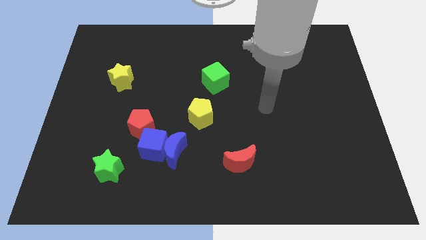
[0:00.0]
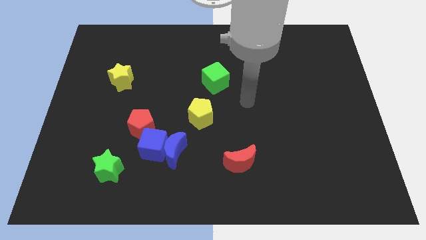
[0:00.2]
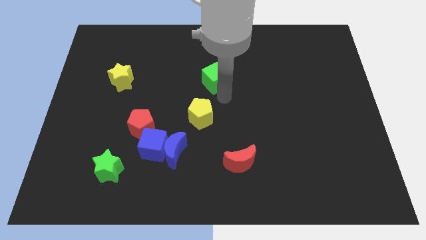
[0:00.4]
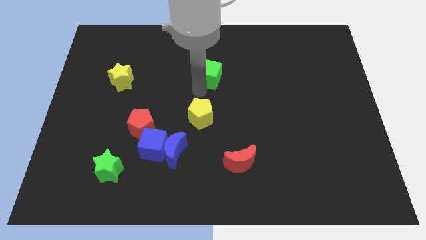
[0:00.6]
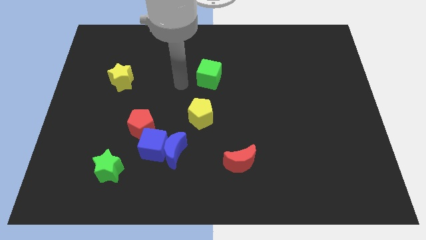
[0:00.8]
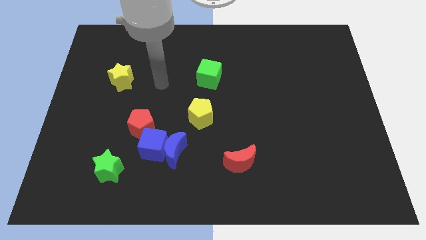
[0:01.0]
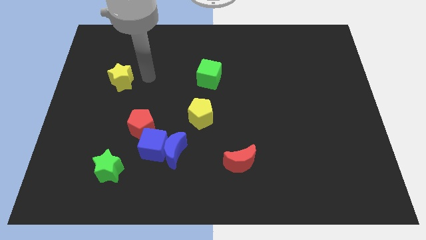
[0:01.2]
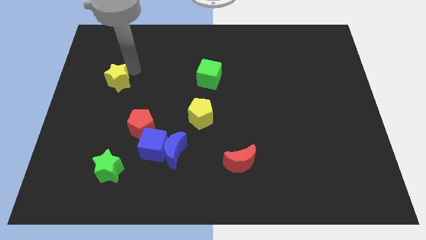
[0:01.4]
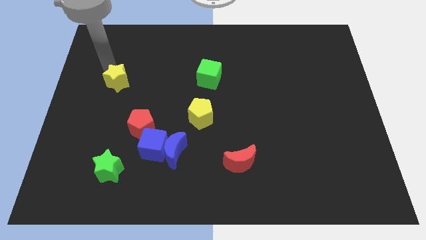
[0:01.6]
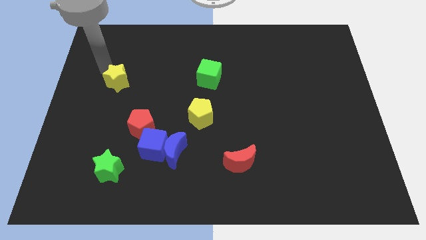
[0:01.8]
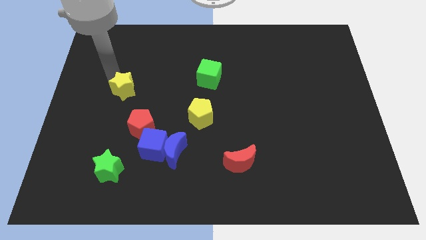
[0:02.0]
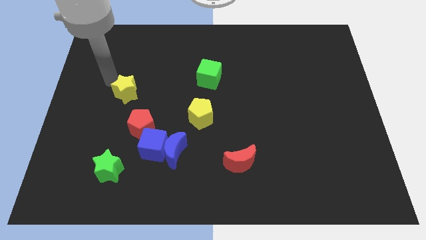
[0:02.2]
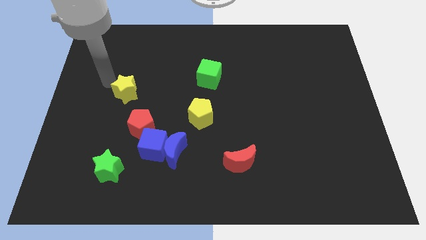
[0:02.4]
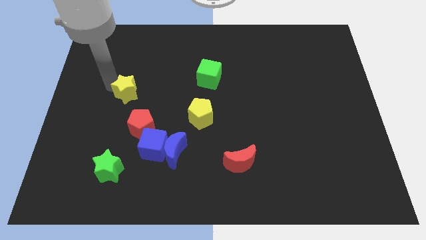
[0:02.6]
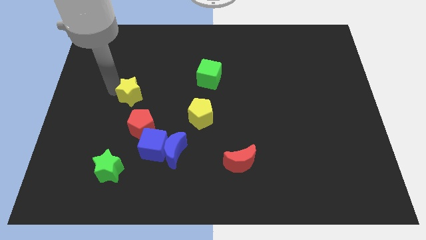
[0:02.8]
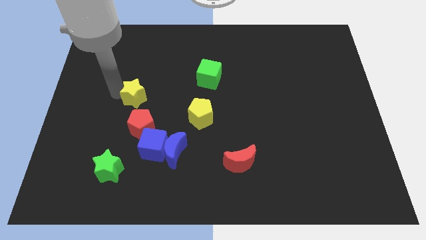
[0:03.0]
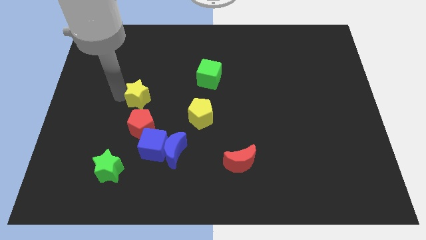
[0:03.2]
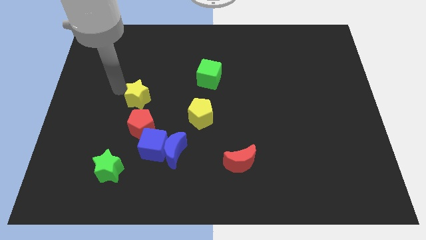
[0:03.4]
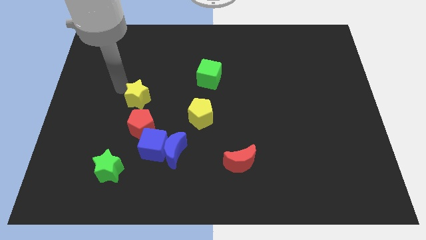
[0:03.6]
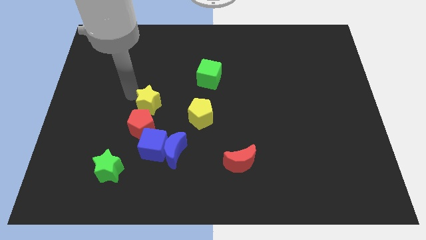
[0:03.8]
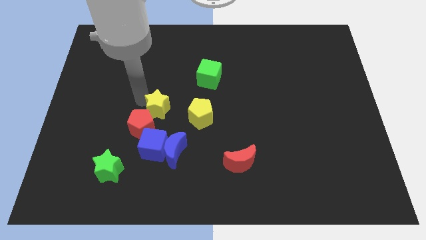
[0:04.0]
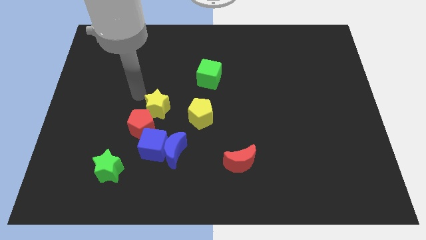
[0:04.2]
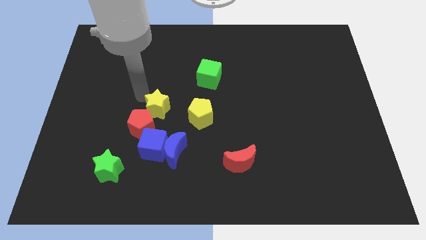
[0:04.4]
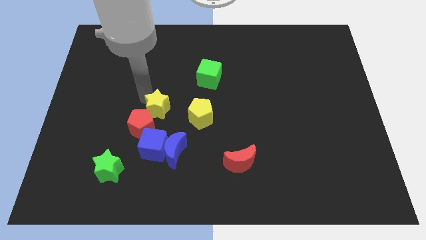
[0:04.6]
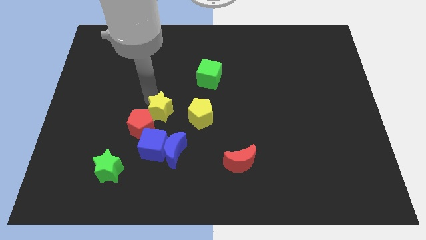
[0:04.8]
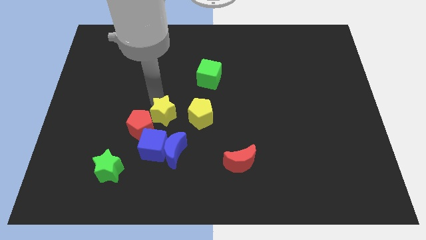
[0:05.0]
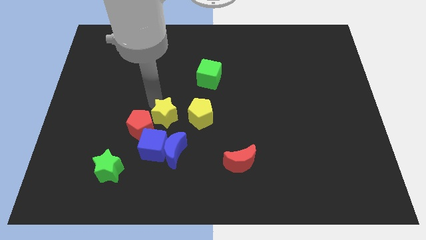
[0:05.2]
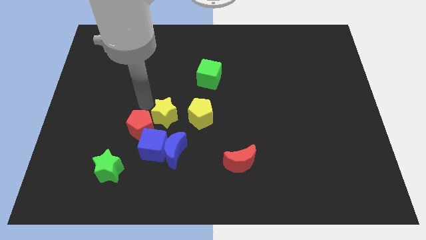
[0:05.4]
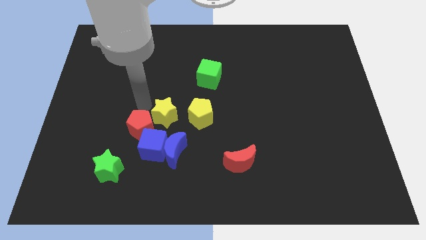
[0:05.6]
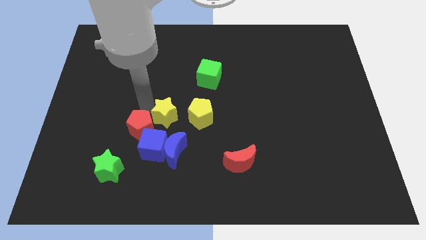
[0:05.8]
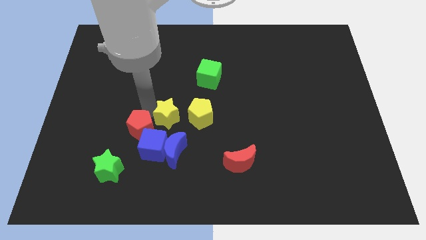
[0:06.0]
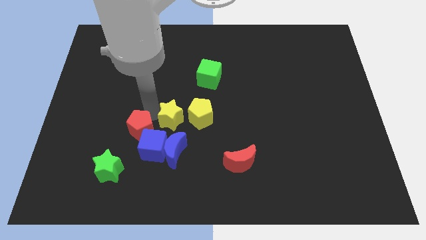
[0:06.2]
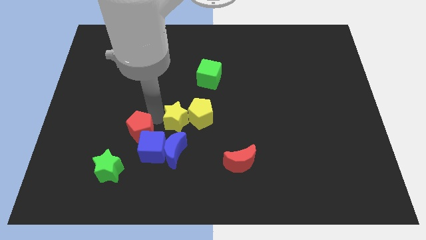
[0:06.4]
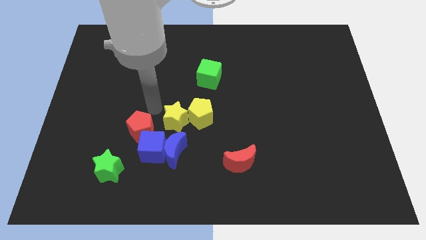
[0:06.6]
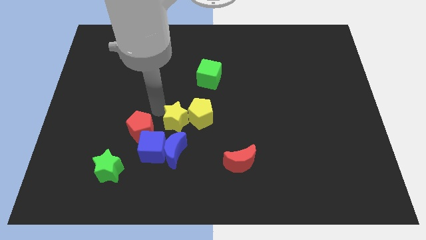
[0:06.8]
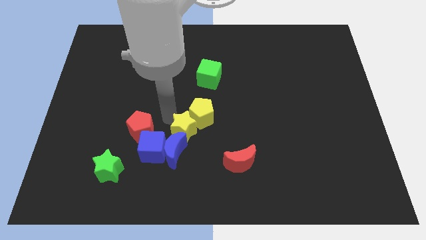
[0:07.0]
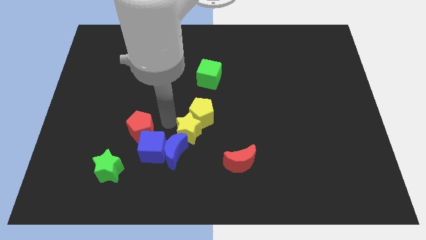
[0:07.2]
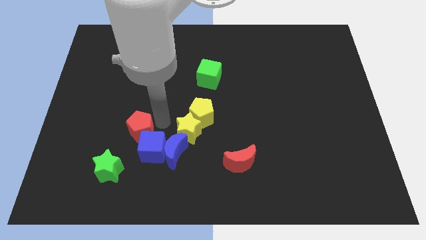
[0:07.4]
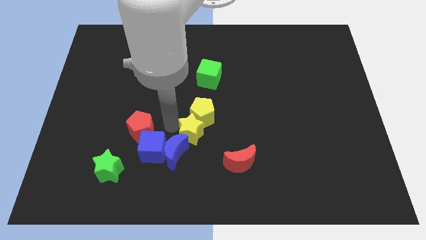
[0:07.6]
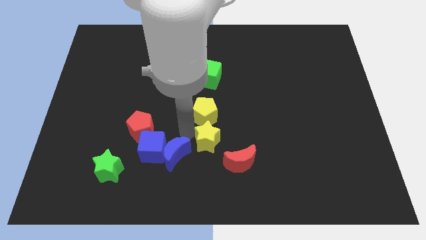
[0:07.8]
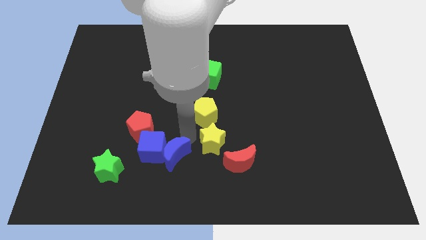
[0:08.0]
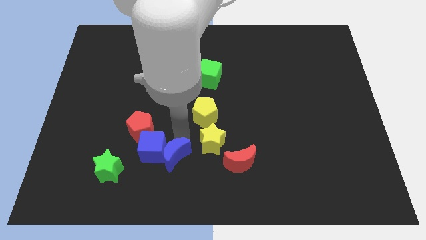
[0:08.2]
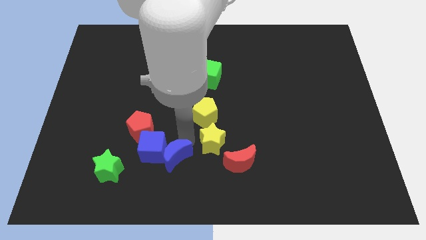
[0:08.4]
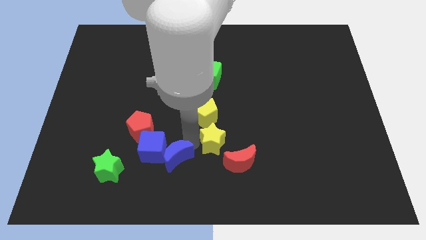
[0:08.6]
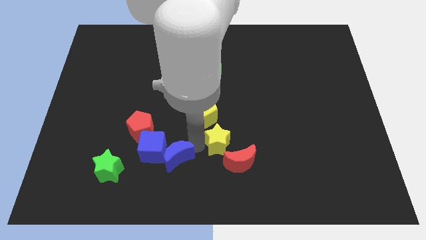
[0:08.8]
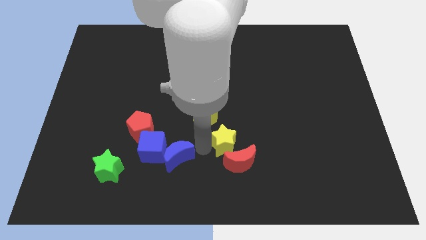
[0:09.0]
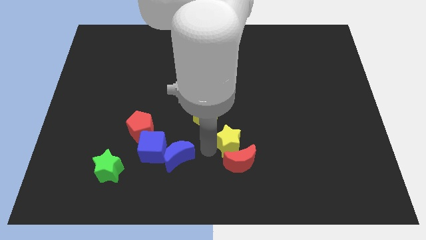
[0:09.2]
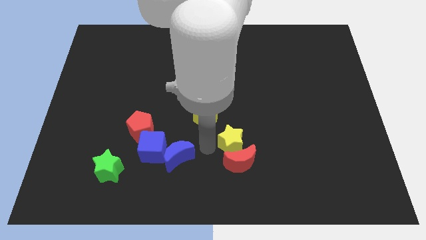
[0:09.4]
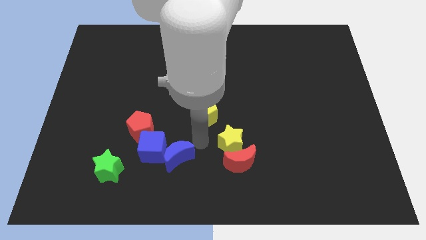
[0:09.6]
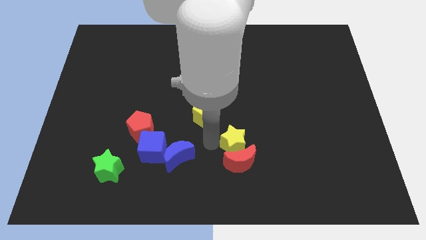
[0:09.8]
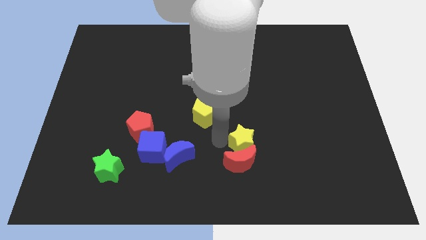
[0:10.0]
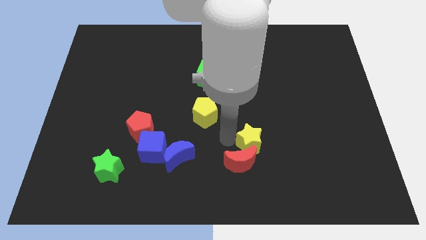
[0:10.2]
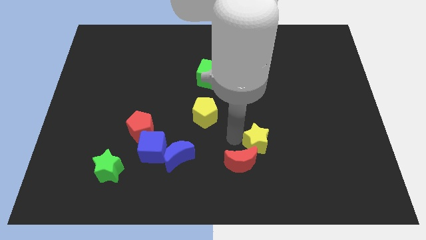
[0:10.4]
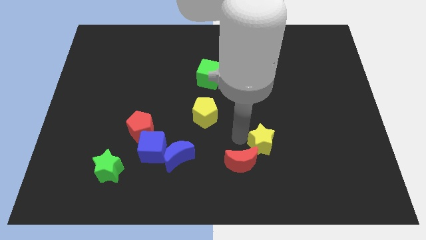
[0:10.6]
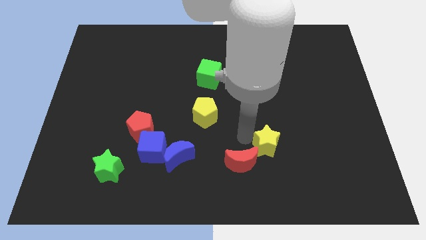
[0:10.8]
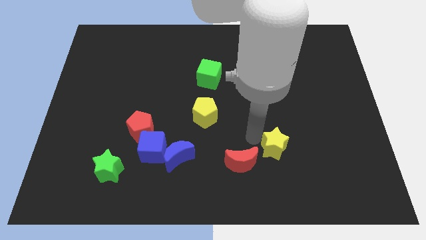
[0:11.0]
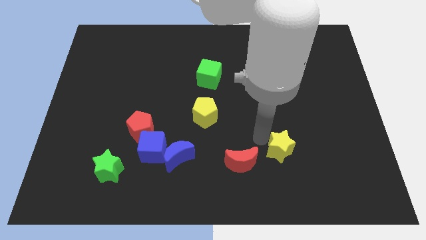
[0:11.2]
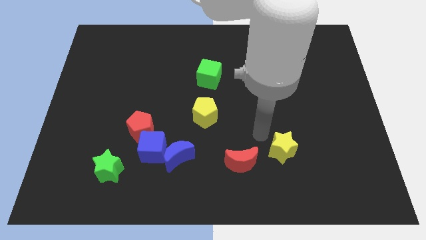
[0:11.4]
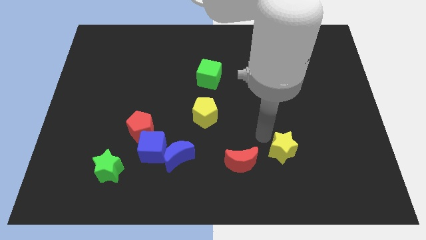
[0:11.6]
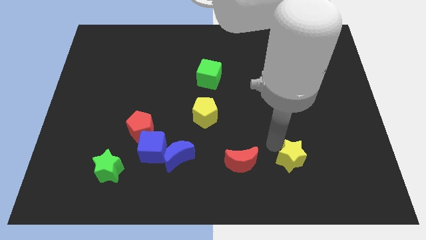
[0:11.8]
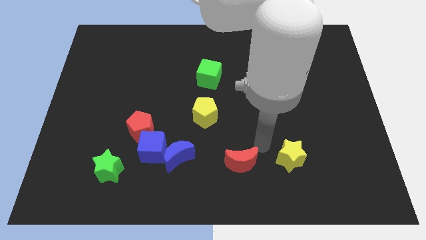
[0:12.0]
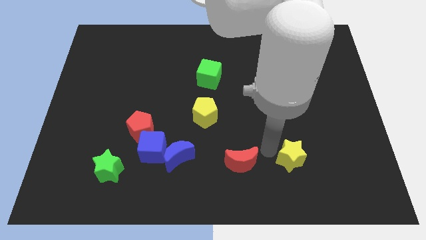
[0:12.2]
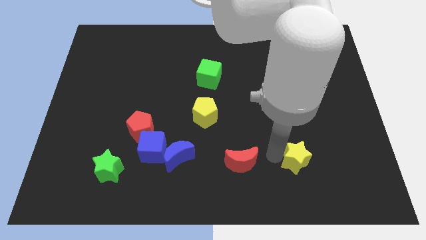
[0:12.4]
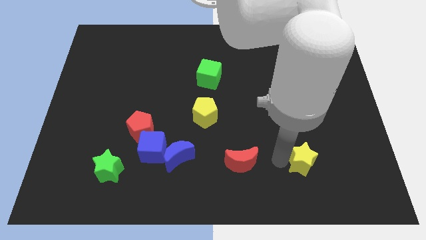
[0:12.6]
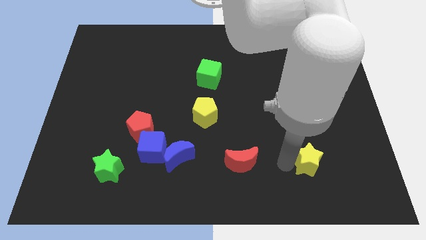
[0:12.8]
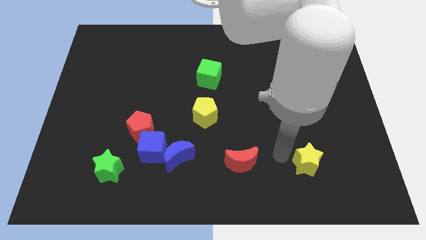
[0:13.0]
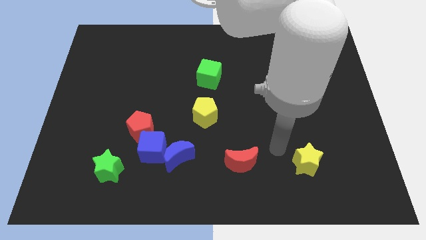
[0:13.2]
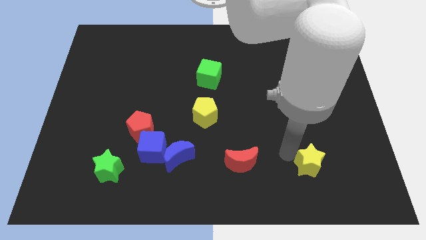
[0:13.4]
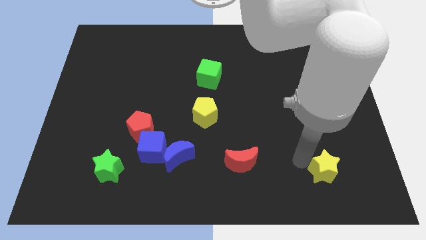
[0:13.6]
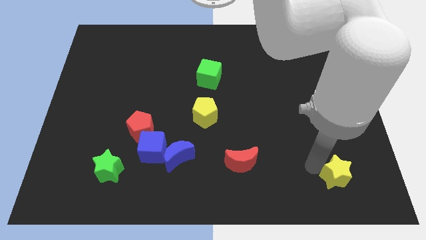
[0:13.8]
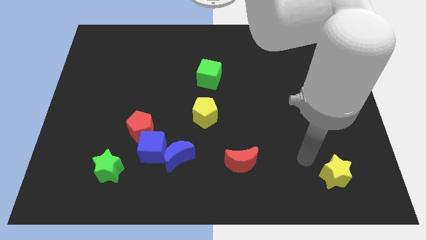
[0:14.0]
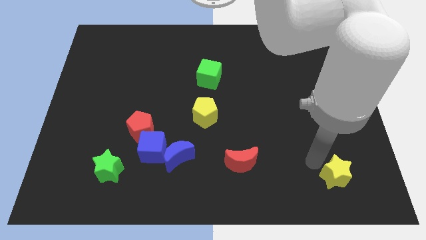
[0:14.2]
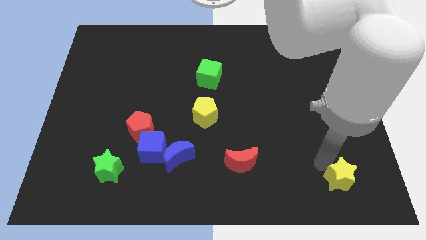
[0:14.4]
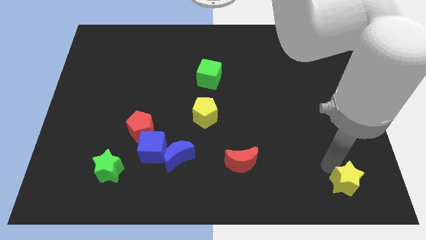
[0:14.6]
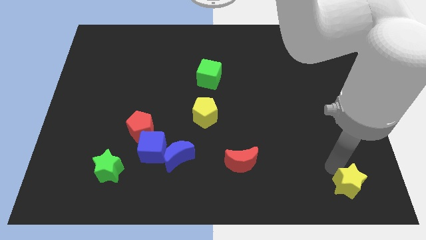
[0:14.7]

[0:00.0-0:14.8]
push the yellow star to the lower right corner

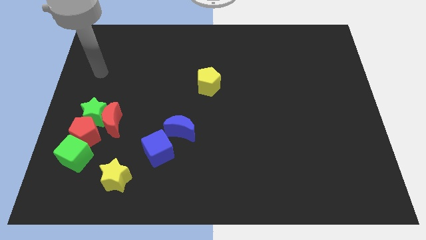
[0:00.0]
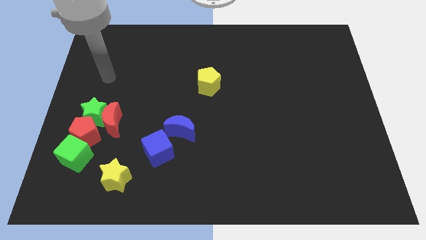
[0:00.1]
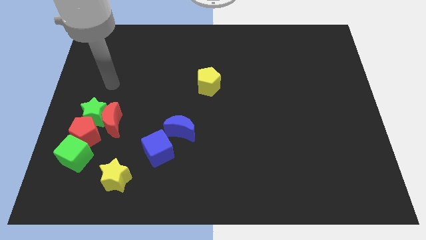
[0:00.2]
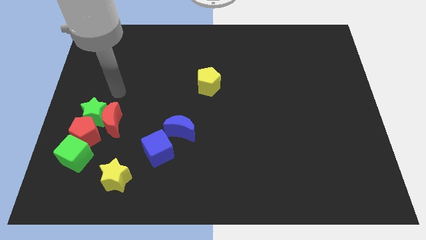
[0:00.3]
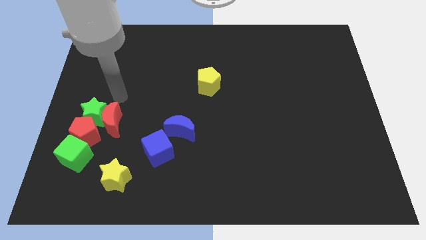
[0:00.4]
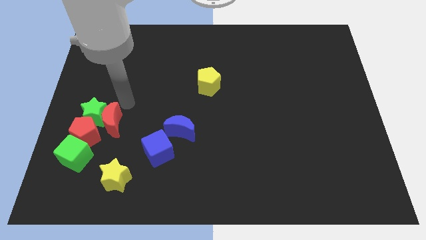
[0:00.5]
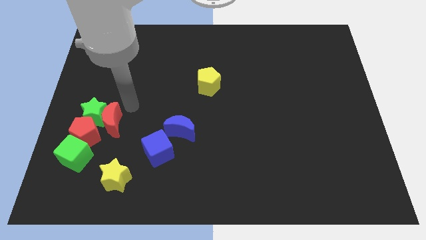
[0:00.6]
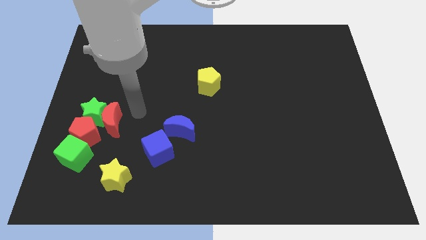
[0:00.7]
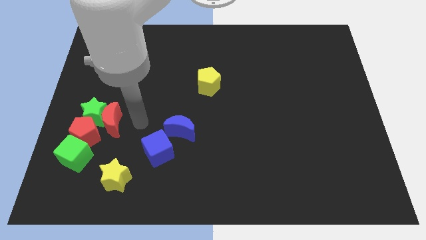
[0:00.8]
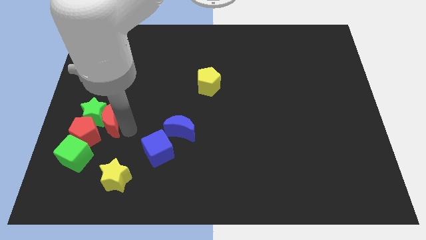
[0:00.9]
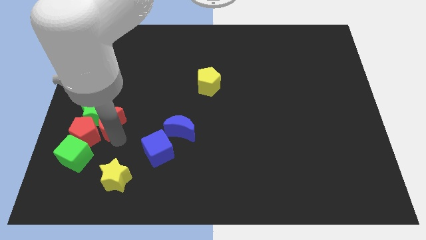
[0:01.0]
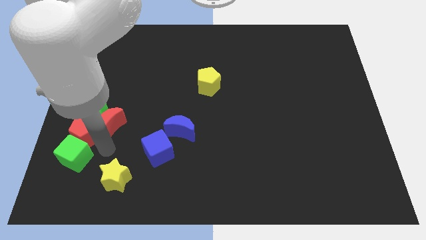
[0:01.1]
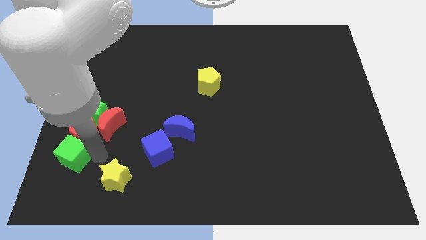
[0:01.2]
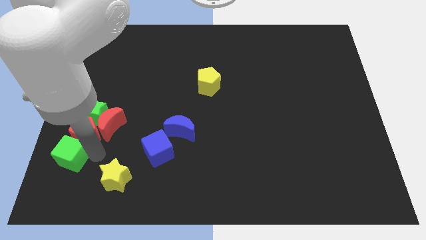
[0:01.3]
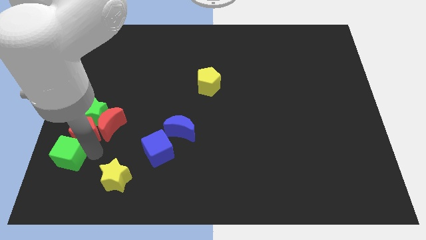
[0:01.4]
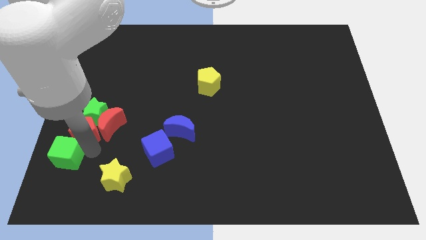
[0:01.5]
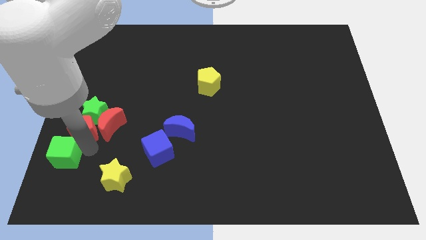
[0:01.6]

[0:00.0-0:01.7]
put the red pentagon to the left side of the board
